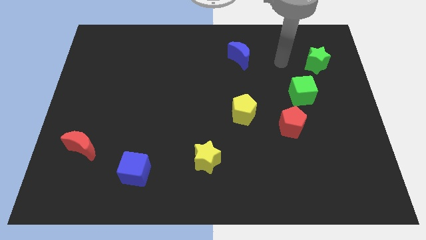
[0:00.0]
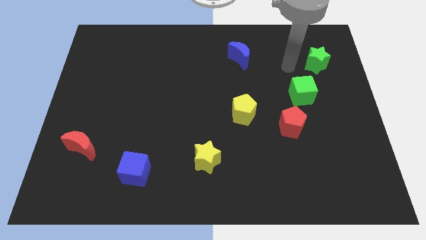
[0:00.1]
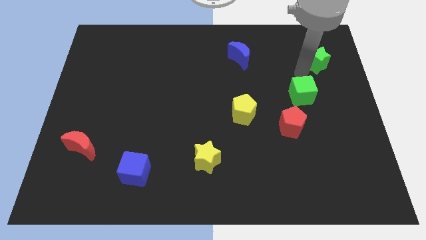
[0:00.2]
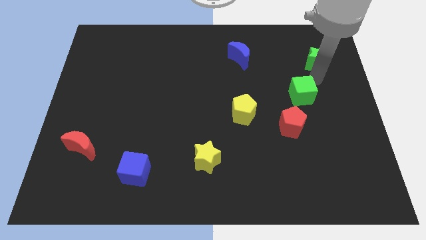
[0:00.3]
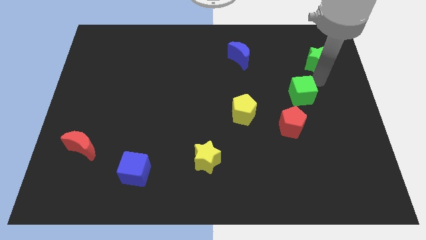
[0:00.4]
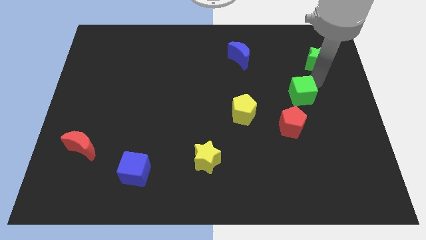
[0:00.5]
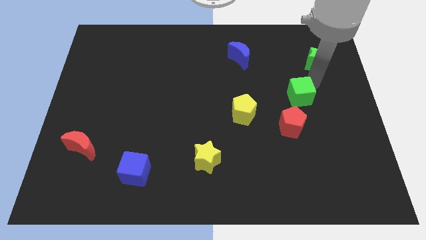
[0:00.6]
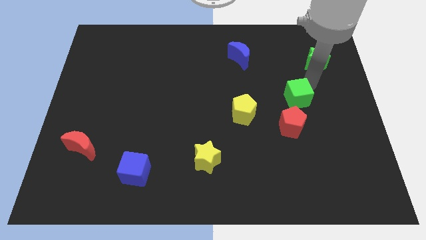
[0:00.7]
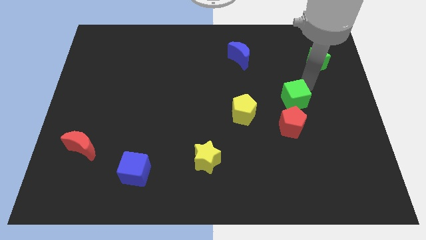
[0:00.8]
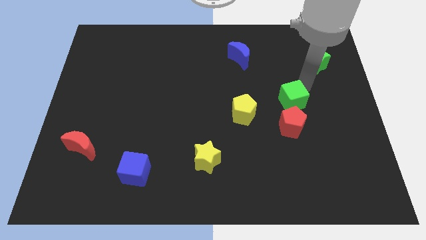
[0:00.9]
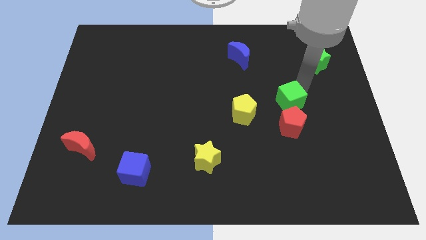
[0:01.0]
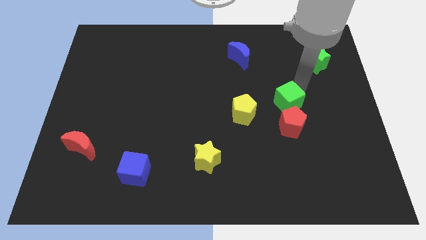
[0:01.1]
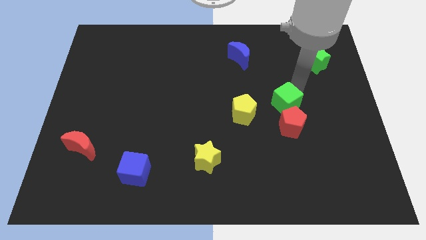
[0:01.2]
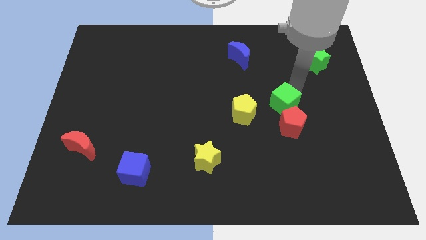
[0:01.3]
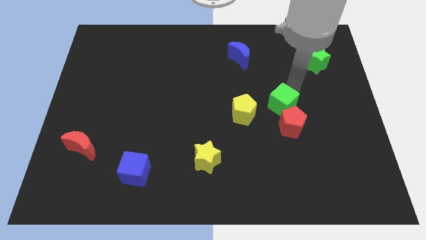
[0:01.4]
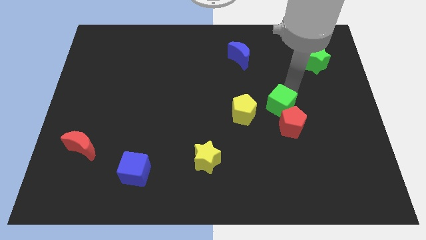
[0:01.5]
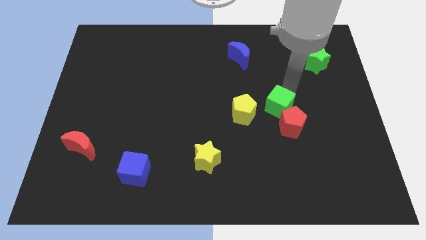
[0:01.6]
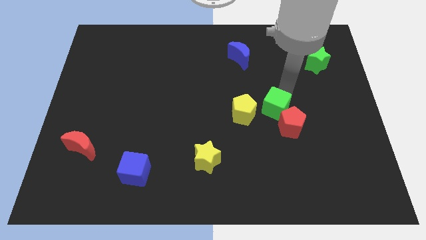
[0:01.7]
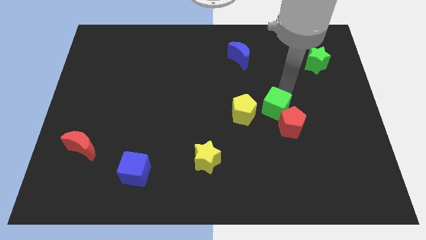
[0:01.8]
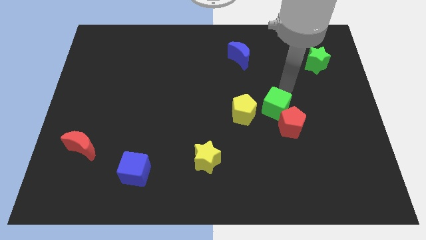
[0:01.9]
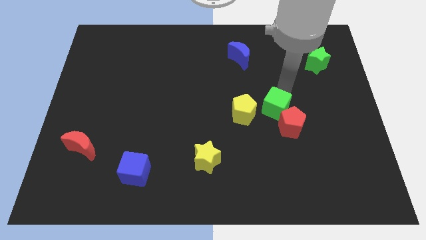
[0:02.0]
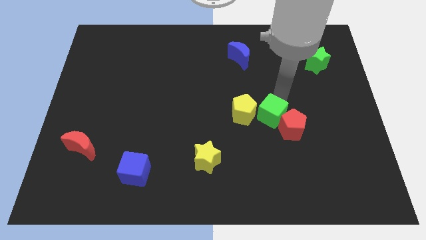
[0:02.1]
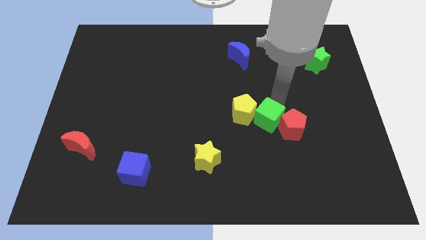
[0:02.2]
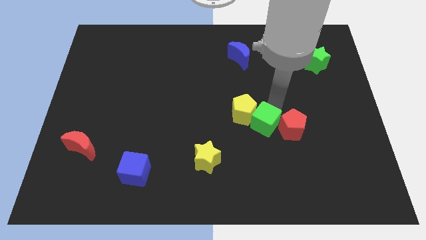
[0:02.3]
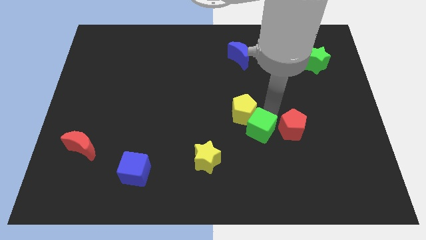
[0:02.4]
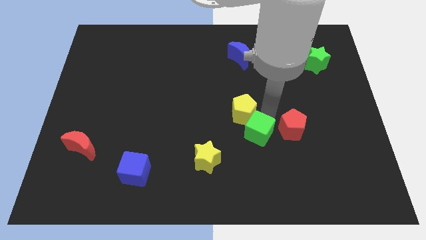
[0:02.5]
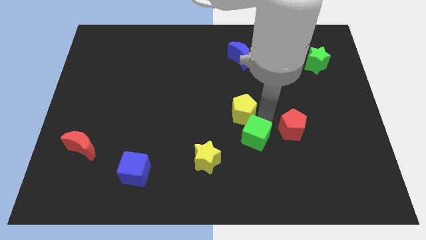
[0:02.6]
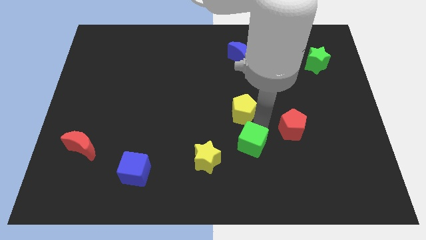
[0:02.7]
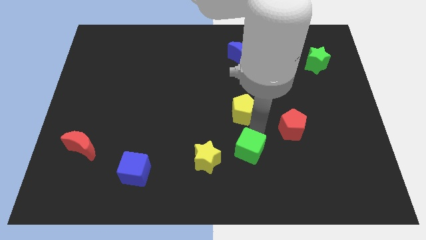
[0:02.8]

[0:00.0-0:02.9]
move the green cube down and then to the left

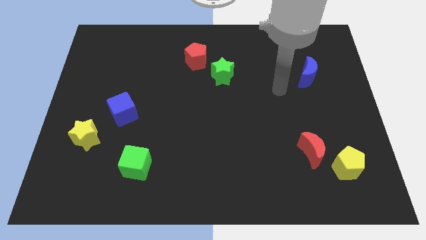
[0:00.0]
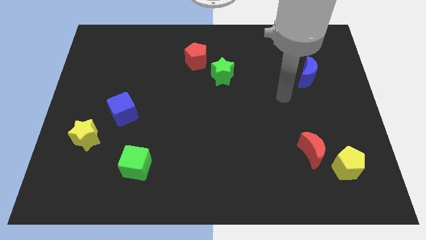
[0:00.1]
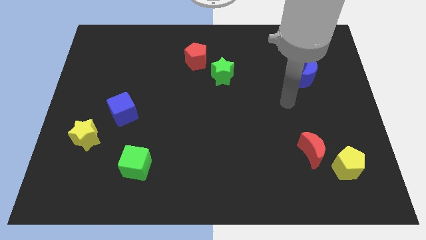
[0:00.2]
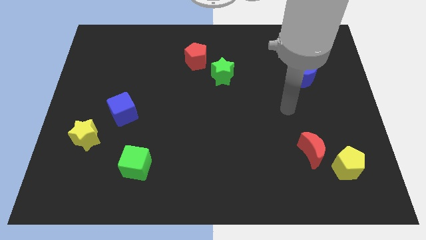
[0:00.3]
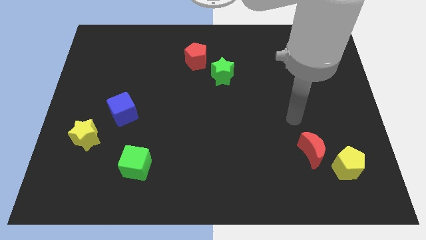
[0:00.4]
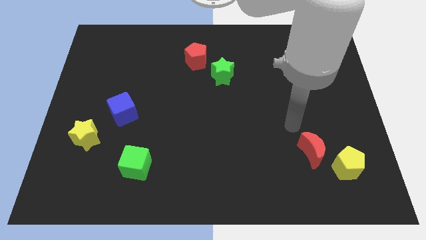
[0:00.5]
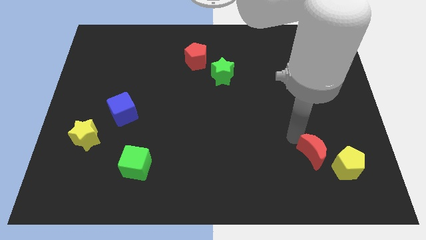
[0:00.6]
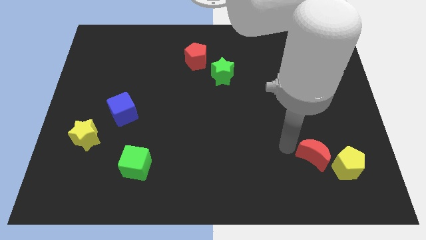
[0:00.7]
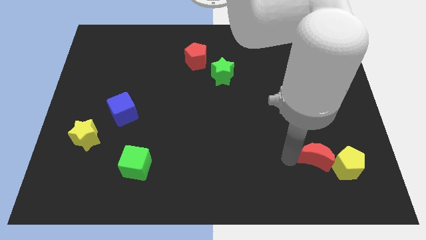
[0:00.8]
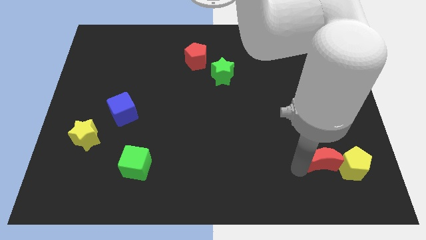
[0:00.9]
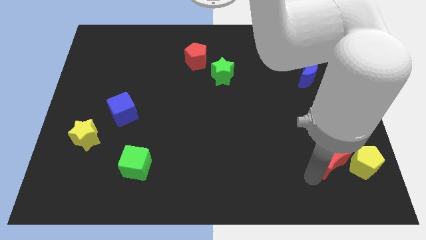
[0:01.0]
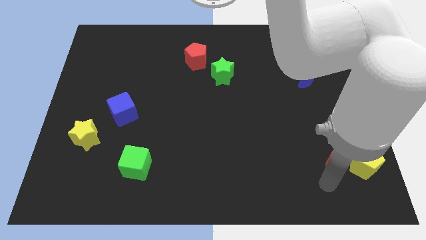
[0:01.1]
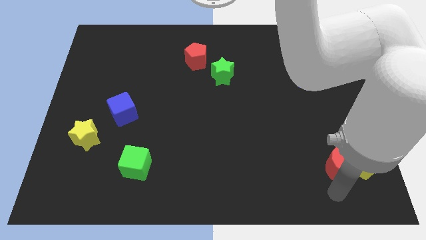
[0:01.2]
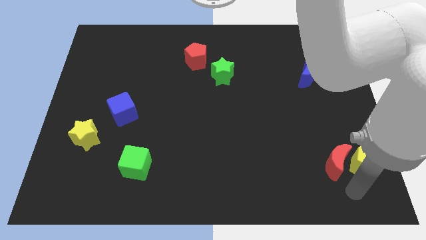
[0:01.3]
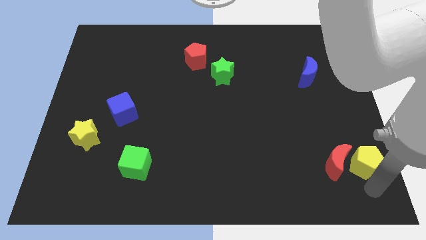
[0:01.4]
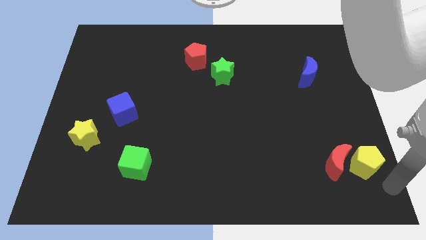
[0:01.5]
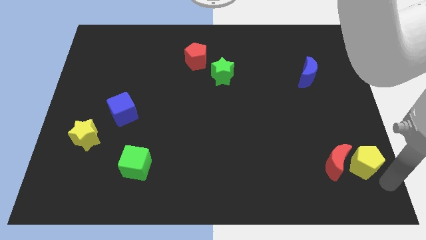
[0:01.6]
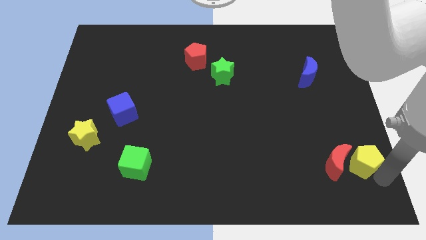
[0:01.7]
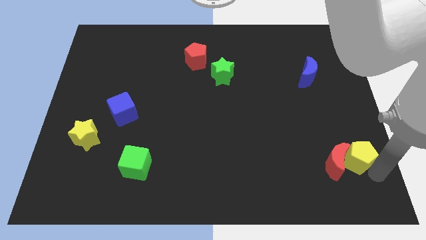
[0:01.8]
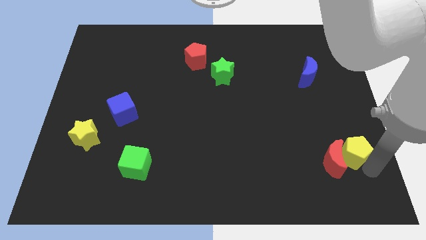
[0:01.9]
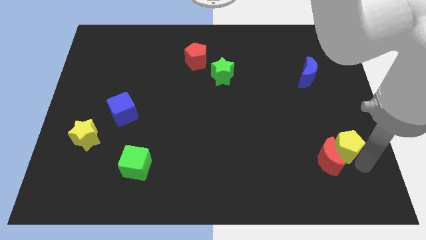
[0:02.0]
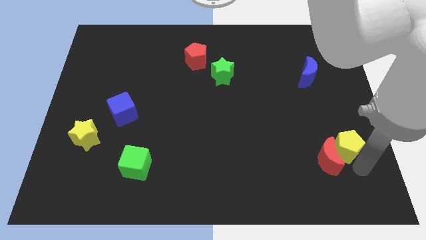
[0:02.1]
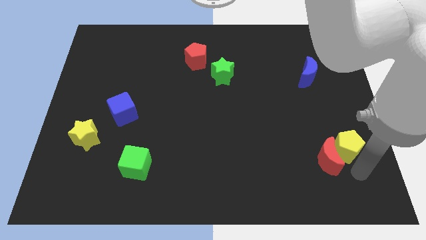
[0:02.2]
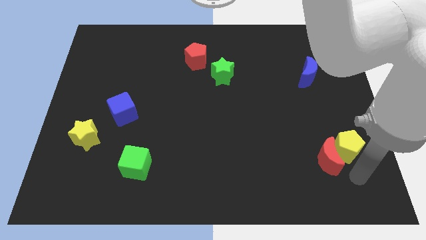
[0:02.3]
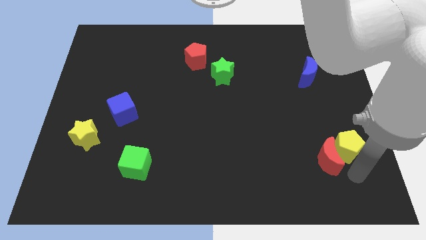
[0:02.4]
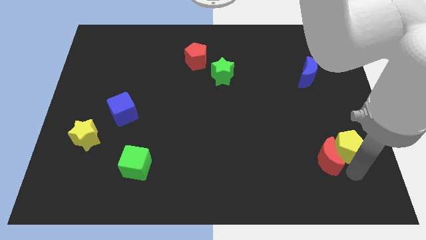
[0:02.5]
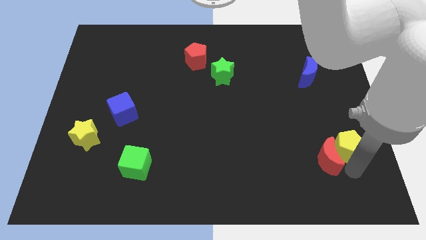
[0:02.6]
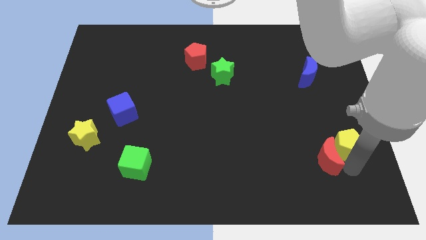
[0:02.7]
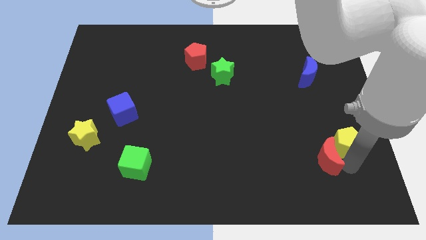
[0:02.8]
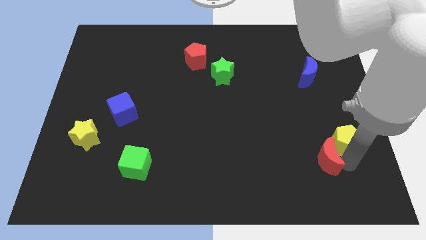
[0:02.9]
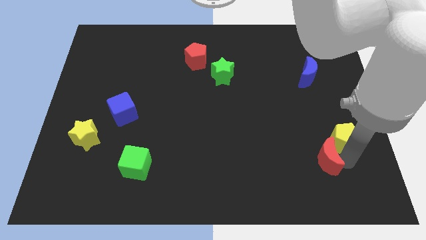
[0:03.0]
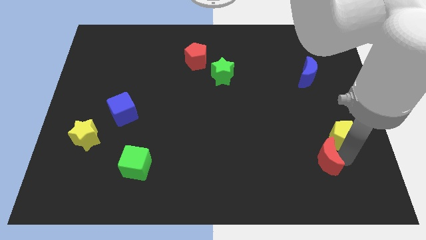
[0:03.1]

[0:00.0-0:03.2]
move the yellow pentagon up a little bit

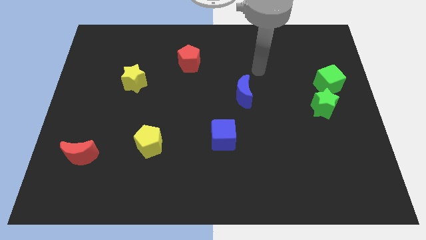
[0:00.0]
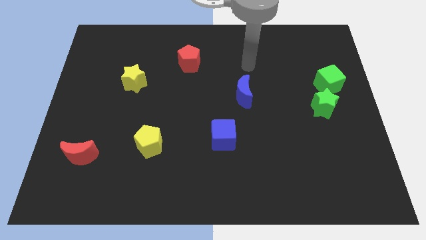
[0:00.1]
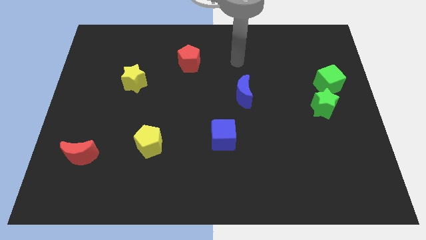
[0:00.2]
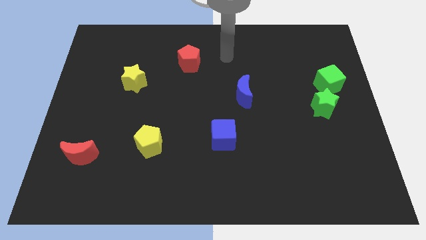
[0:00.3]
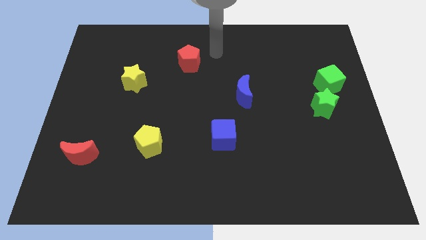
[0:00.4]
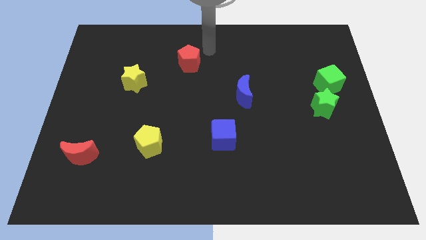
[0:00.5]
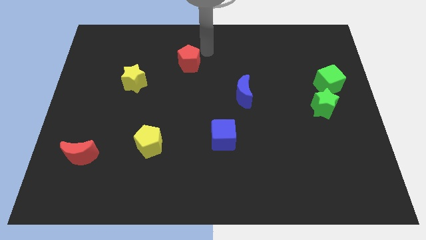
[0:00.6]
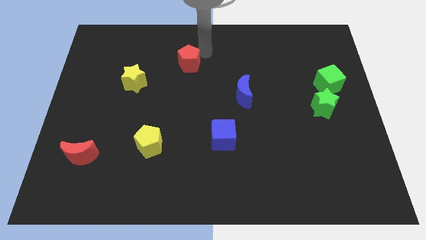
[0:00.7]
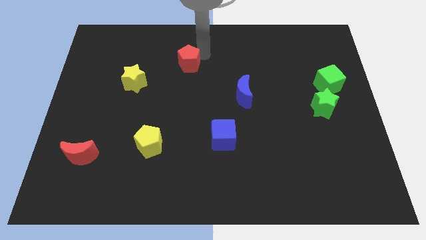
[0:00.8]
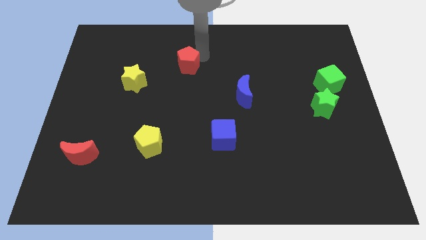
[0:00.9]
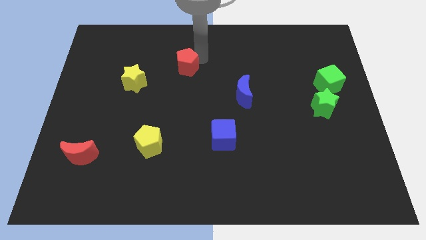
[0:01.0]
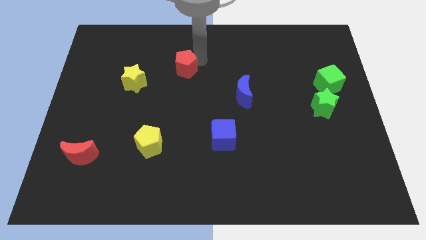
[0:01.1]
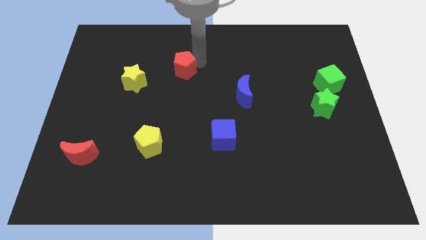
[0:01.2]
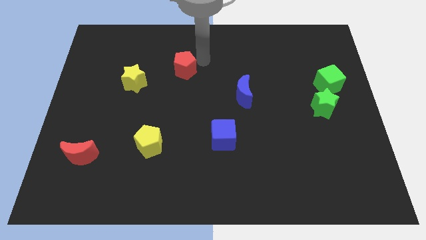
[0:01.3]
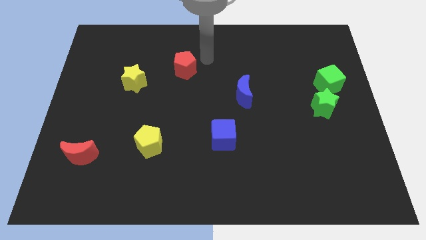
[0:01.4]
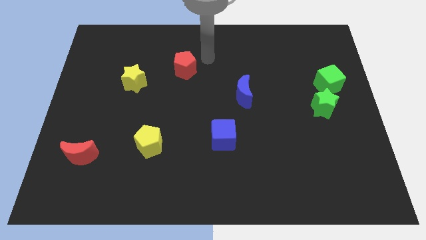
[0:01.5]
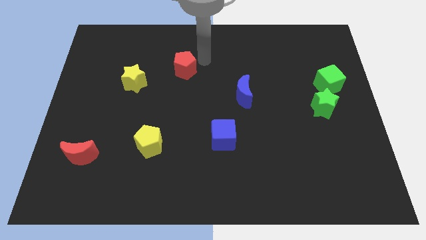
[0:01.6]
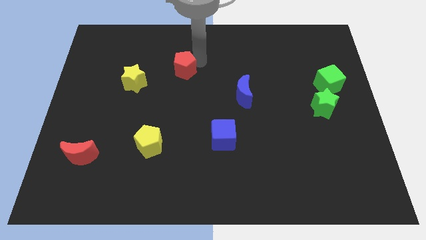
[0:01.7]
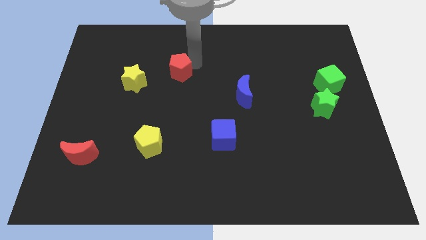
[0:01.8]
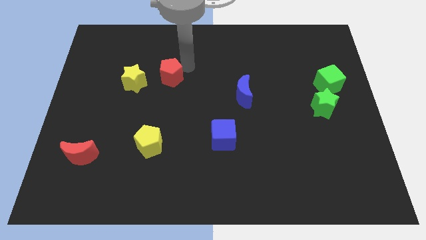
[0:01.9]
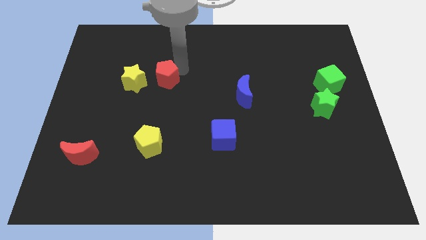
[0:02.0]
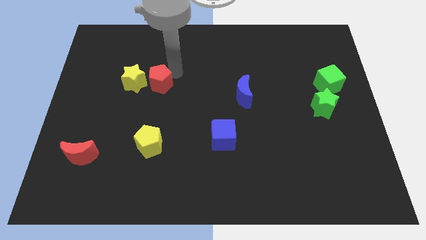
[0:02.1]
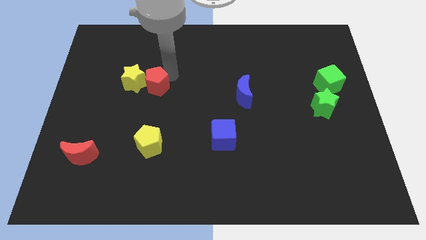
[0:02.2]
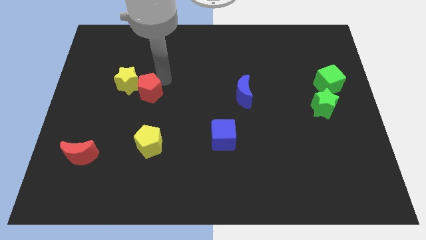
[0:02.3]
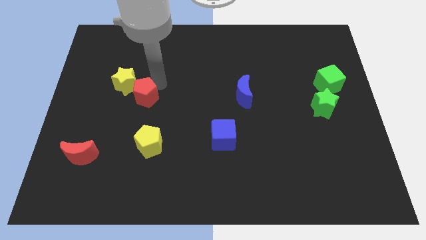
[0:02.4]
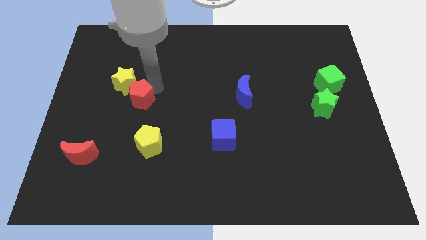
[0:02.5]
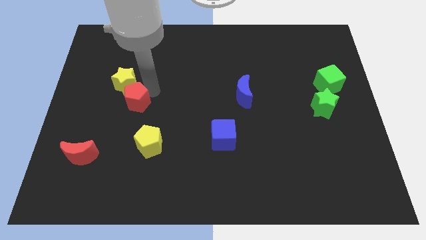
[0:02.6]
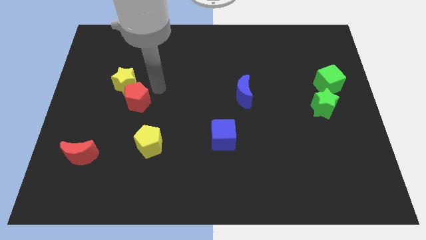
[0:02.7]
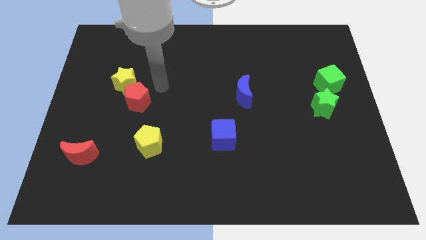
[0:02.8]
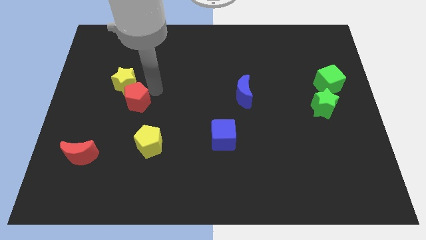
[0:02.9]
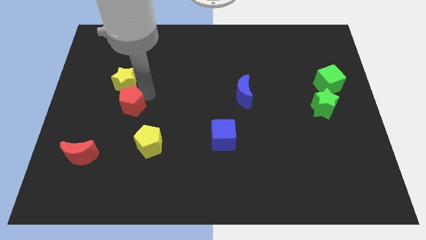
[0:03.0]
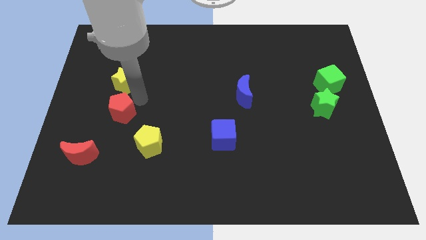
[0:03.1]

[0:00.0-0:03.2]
push the red pentagon downwards and left
